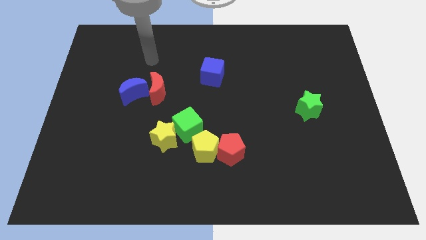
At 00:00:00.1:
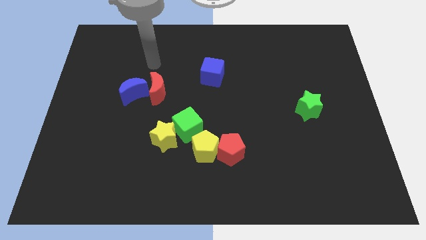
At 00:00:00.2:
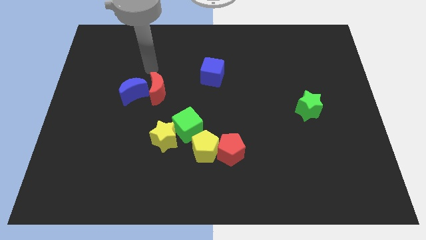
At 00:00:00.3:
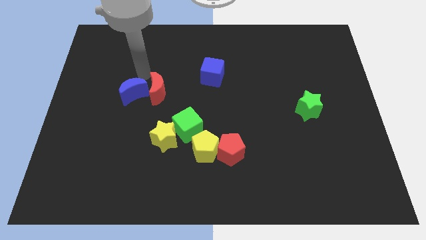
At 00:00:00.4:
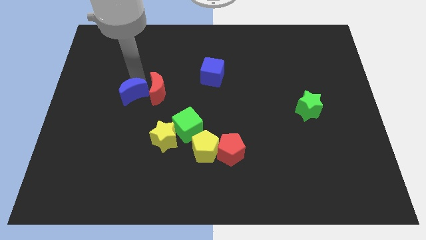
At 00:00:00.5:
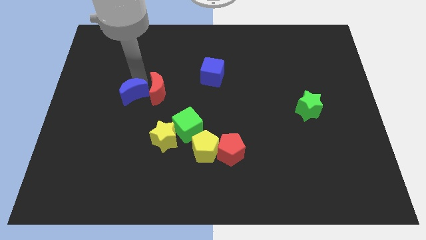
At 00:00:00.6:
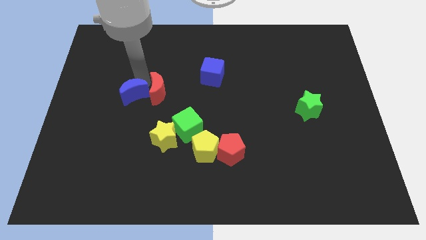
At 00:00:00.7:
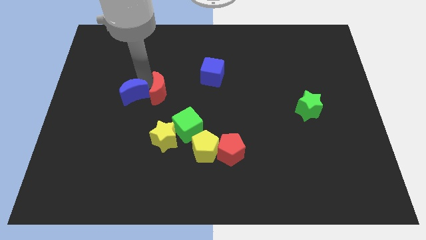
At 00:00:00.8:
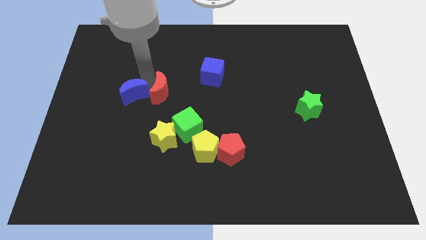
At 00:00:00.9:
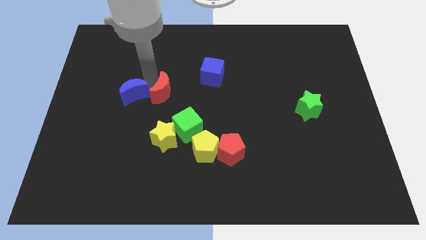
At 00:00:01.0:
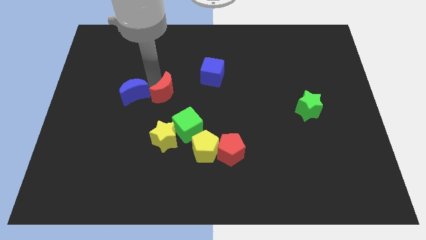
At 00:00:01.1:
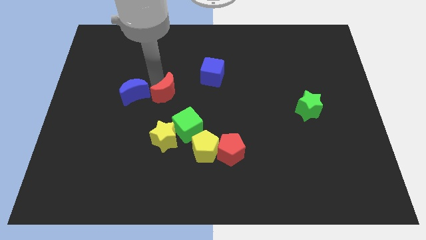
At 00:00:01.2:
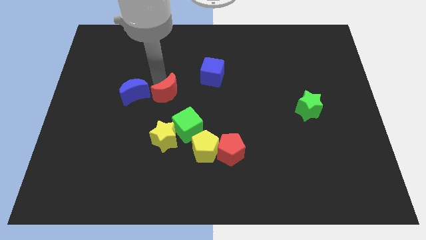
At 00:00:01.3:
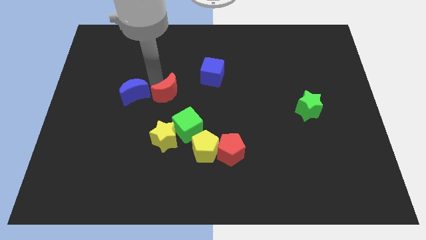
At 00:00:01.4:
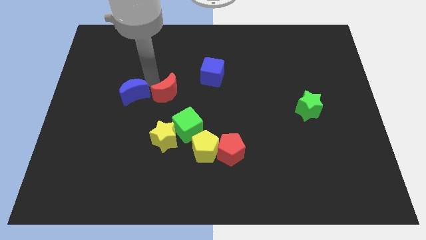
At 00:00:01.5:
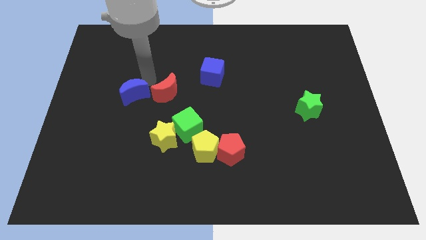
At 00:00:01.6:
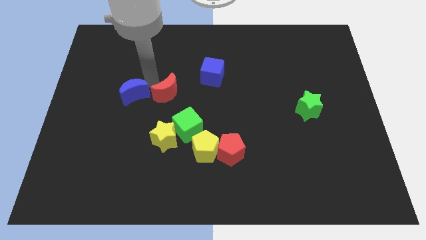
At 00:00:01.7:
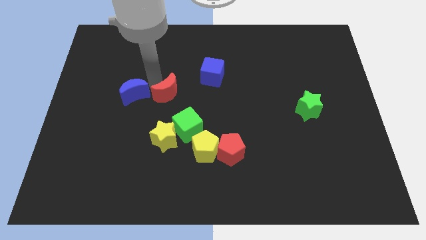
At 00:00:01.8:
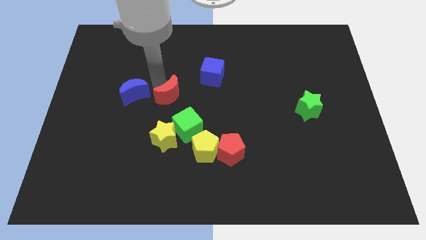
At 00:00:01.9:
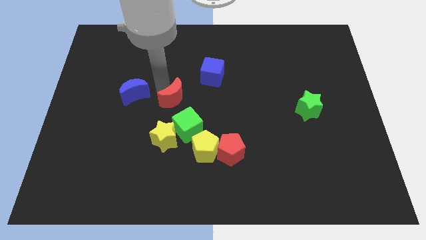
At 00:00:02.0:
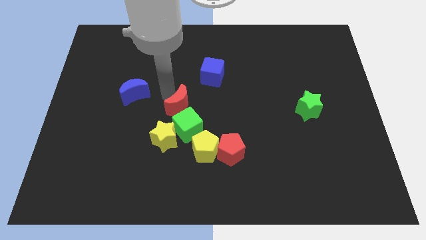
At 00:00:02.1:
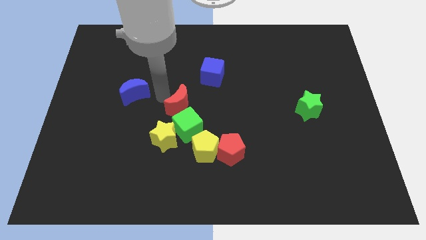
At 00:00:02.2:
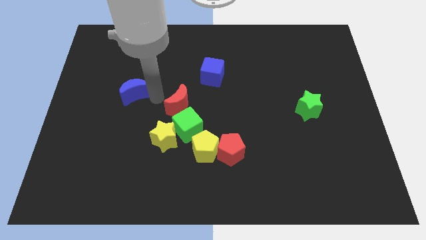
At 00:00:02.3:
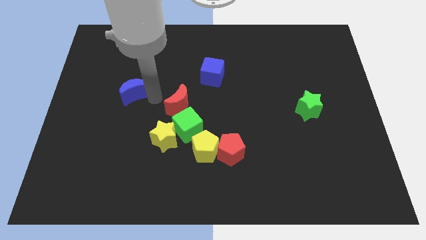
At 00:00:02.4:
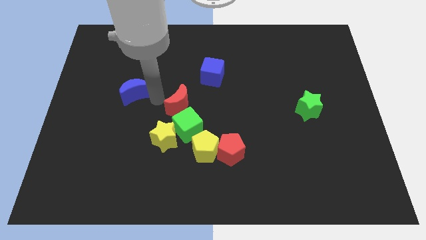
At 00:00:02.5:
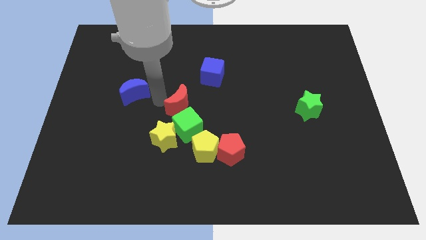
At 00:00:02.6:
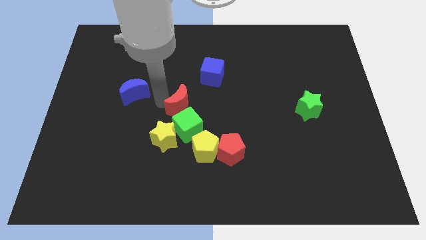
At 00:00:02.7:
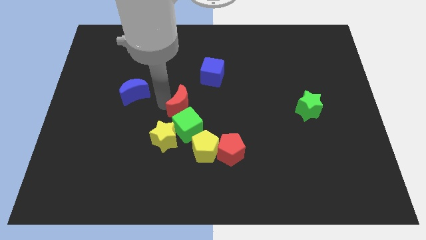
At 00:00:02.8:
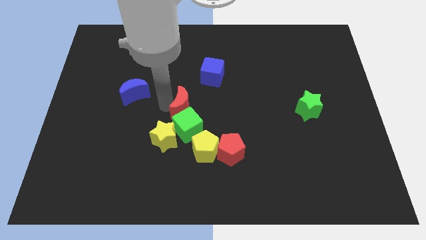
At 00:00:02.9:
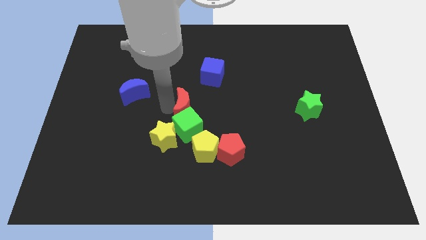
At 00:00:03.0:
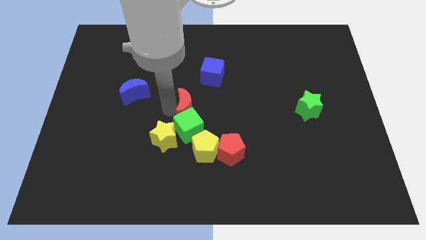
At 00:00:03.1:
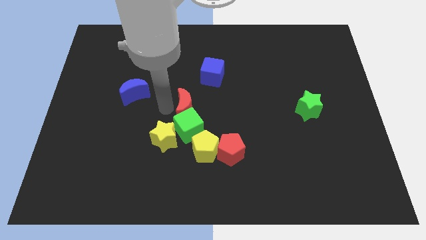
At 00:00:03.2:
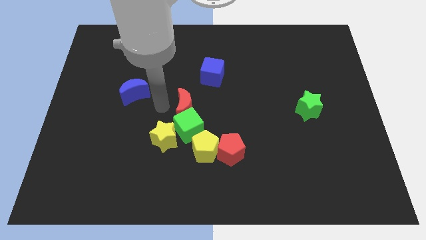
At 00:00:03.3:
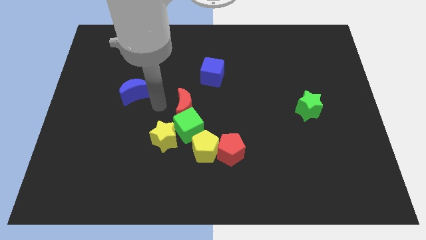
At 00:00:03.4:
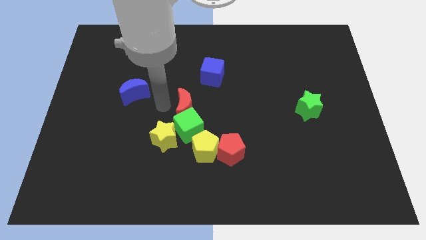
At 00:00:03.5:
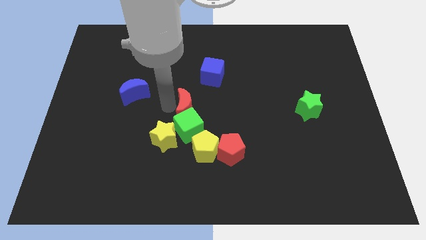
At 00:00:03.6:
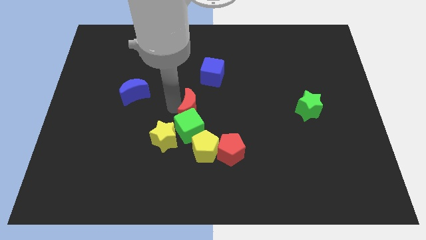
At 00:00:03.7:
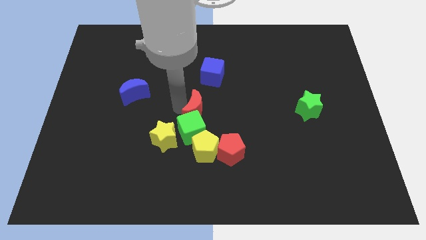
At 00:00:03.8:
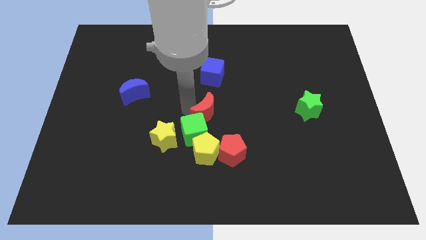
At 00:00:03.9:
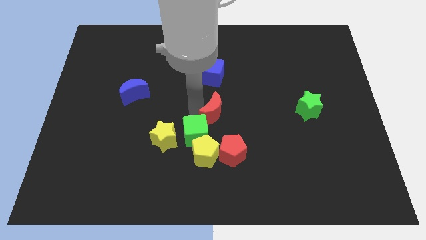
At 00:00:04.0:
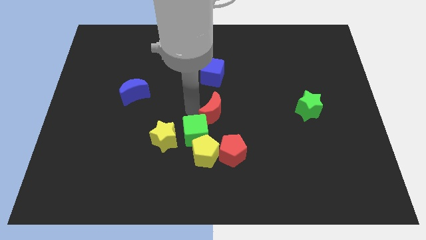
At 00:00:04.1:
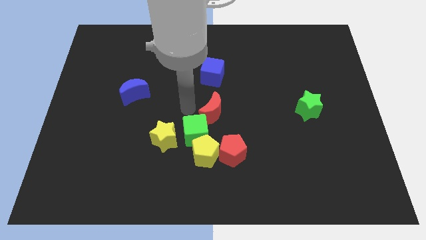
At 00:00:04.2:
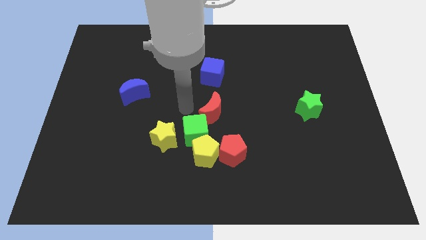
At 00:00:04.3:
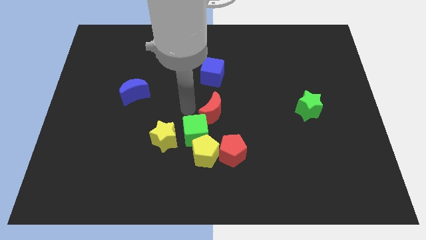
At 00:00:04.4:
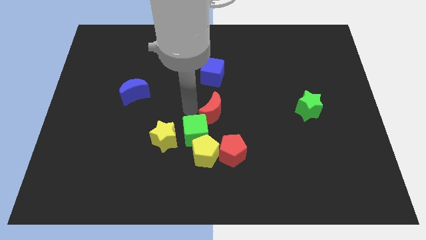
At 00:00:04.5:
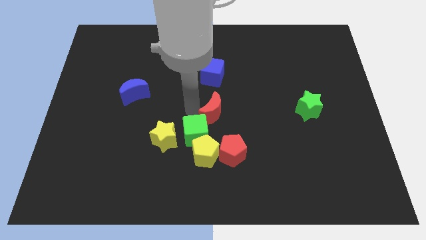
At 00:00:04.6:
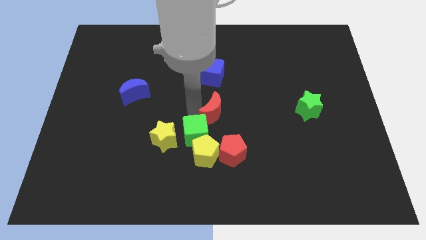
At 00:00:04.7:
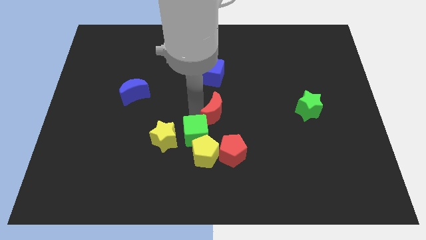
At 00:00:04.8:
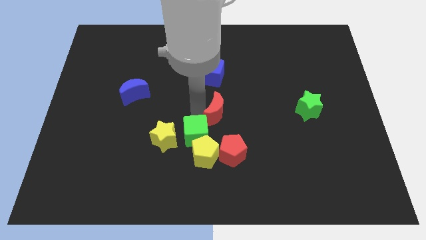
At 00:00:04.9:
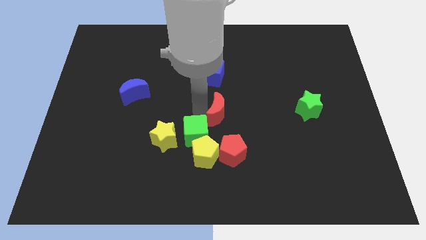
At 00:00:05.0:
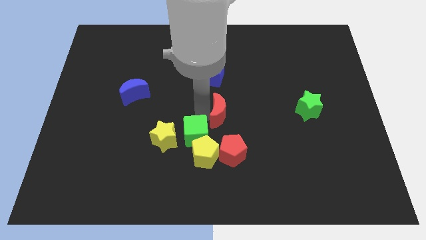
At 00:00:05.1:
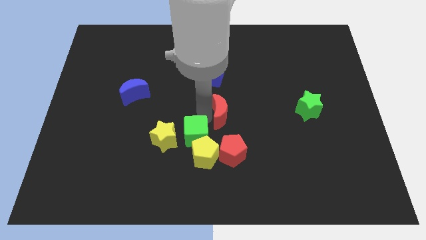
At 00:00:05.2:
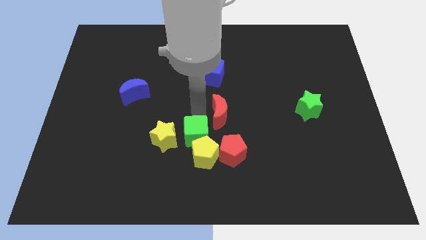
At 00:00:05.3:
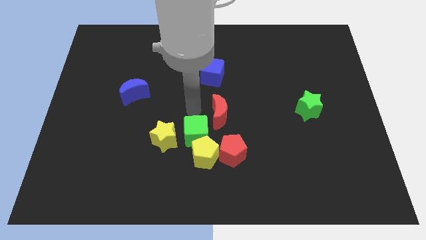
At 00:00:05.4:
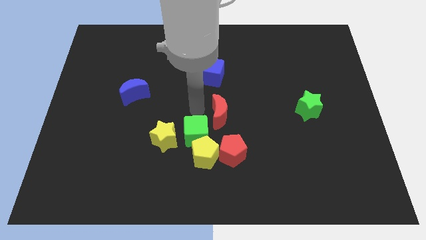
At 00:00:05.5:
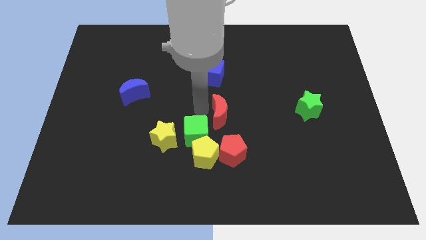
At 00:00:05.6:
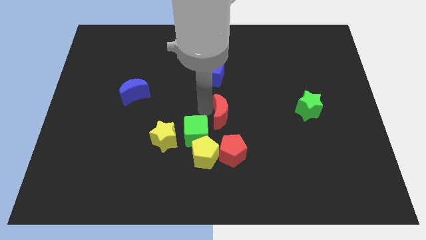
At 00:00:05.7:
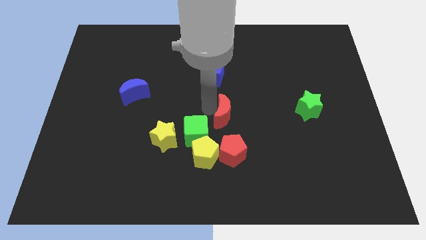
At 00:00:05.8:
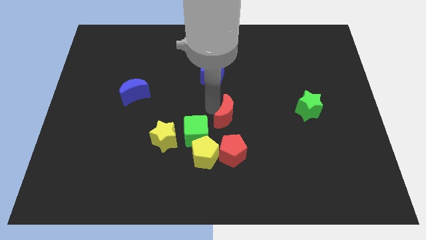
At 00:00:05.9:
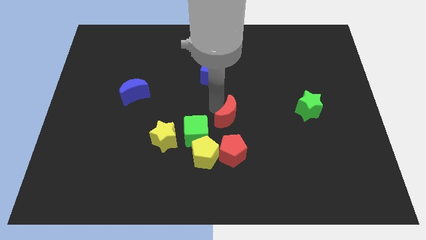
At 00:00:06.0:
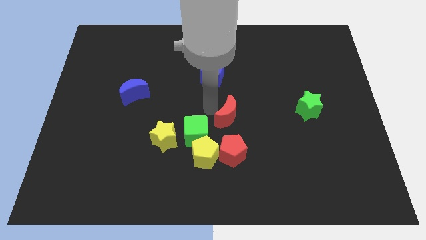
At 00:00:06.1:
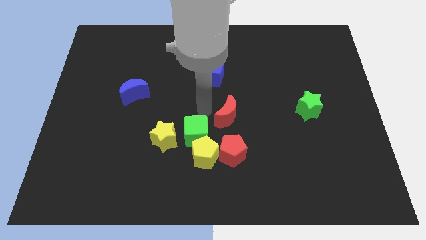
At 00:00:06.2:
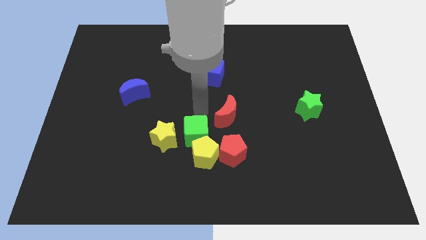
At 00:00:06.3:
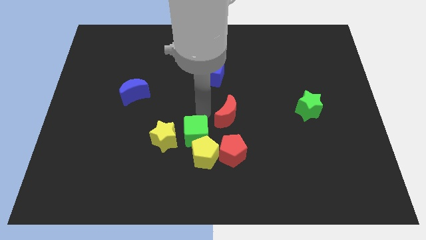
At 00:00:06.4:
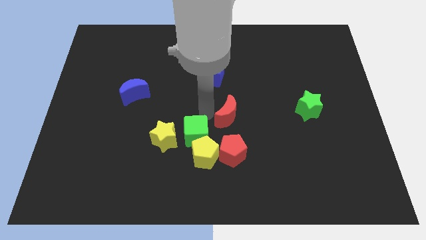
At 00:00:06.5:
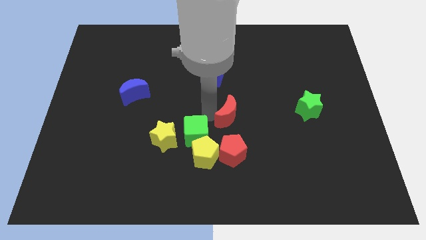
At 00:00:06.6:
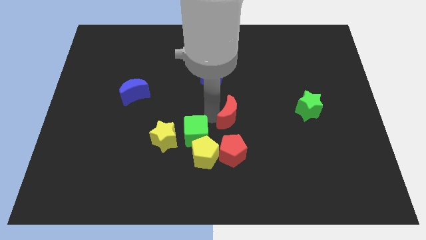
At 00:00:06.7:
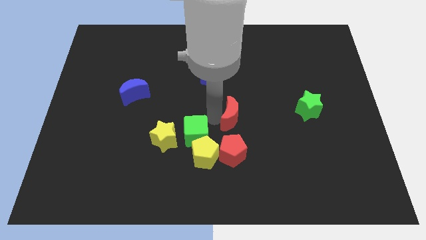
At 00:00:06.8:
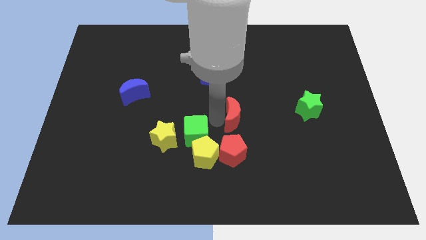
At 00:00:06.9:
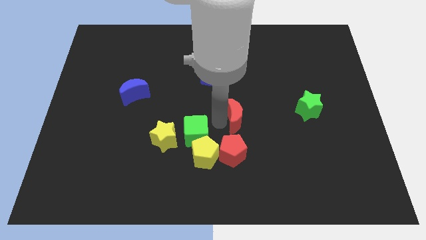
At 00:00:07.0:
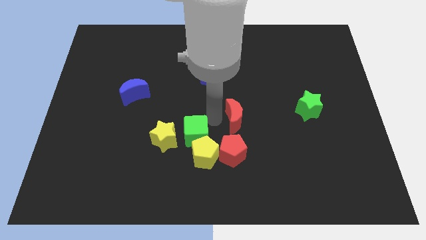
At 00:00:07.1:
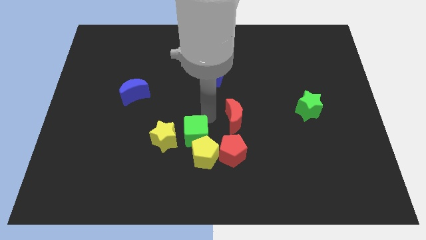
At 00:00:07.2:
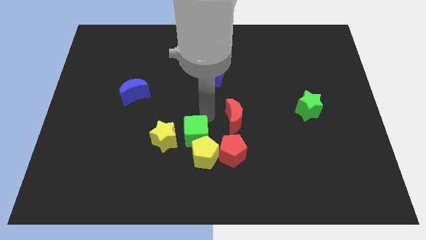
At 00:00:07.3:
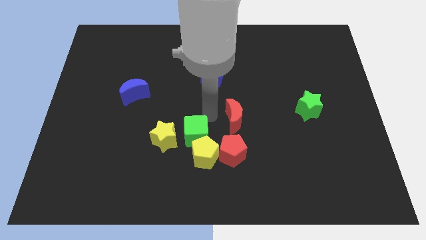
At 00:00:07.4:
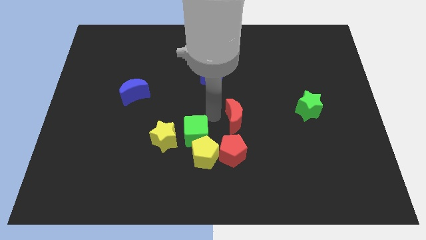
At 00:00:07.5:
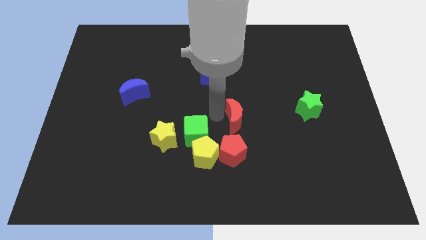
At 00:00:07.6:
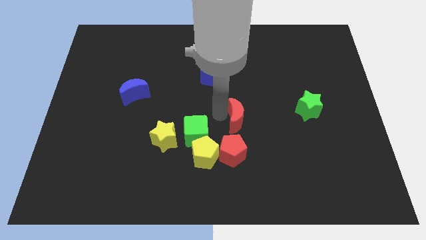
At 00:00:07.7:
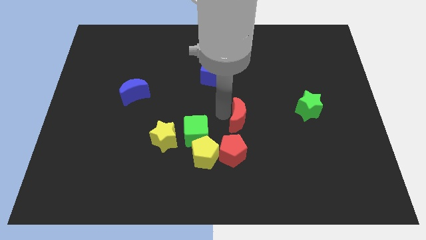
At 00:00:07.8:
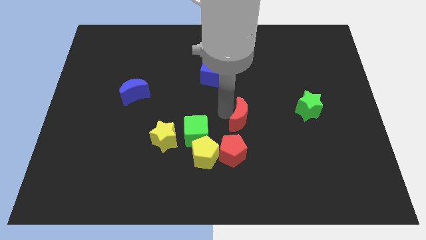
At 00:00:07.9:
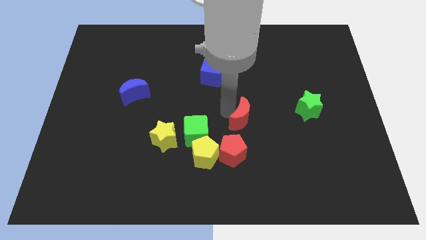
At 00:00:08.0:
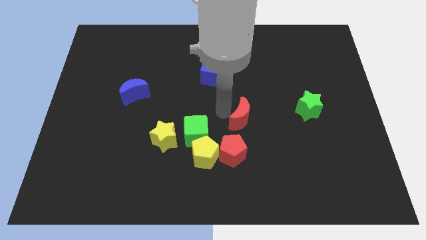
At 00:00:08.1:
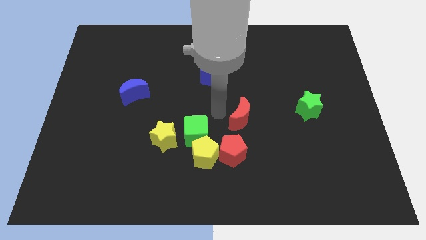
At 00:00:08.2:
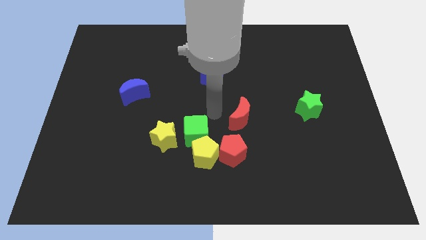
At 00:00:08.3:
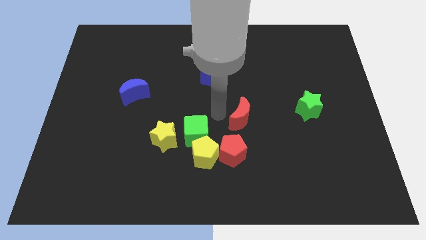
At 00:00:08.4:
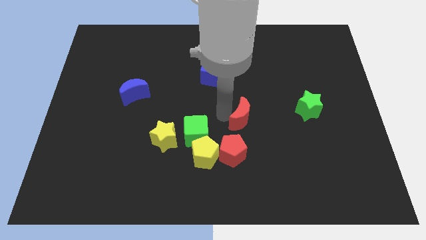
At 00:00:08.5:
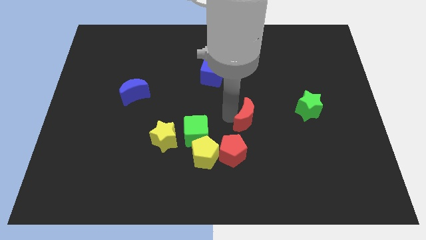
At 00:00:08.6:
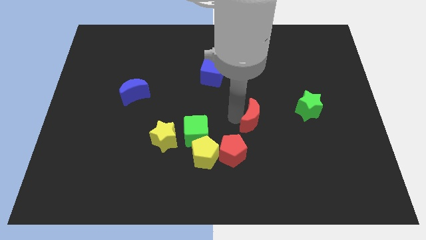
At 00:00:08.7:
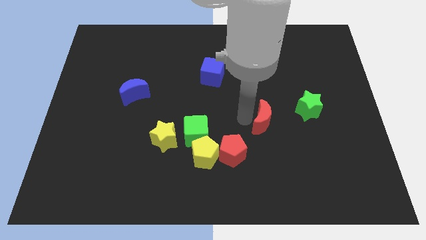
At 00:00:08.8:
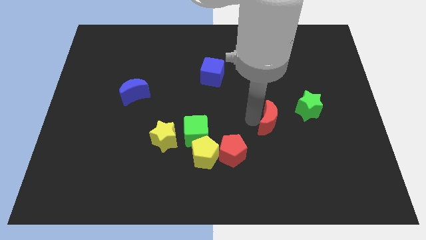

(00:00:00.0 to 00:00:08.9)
move the red moon diagonally down and to the left of the green star
